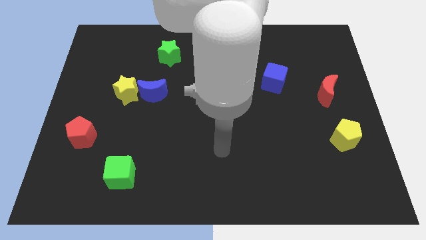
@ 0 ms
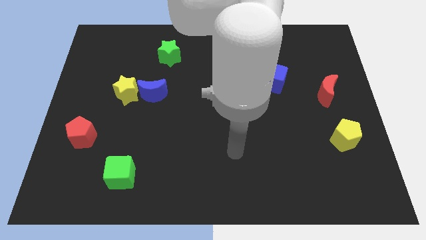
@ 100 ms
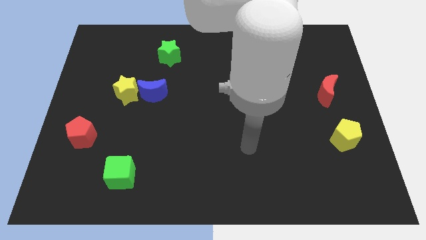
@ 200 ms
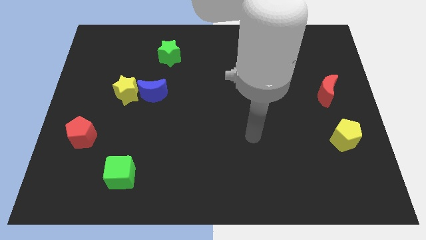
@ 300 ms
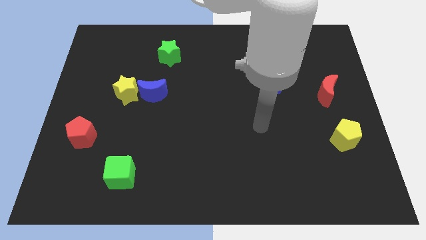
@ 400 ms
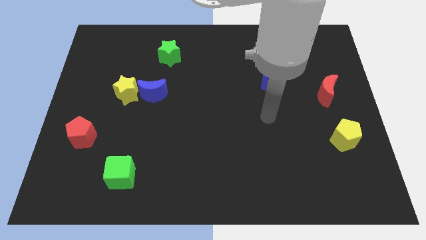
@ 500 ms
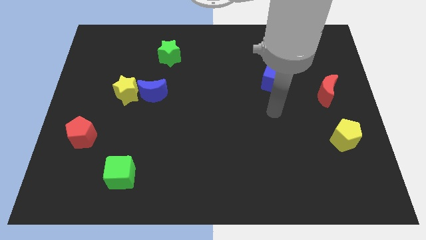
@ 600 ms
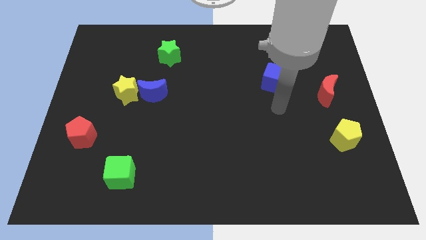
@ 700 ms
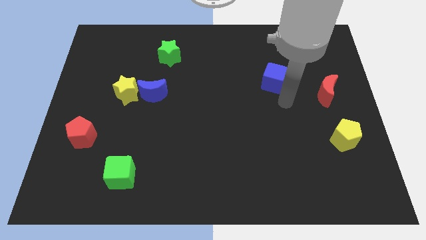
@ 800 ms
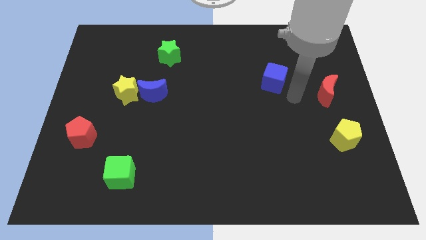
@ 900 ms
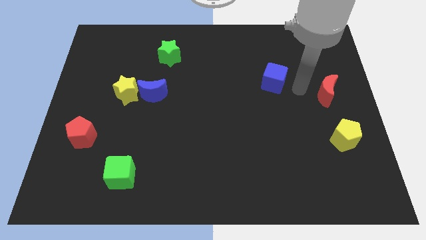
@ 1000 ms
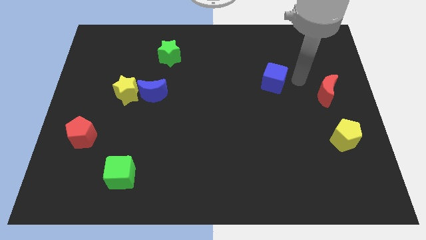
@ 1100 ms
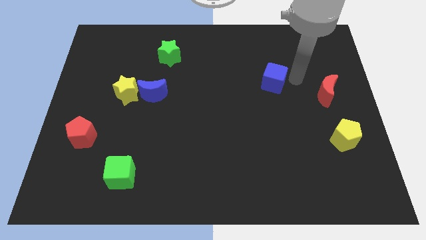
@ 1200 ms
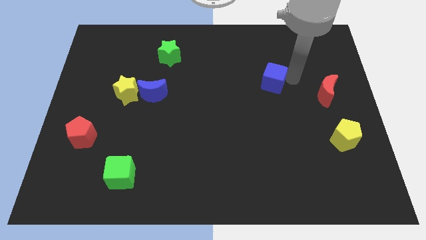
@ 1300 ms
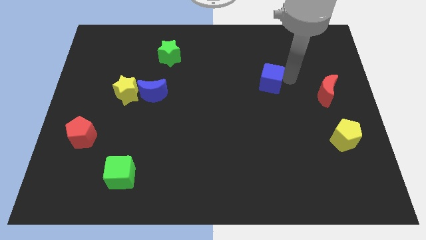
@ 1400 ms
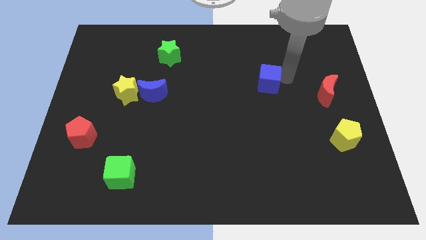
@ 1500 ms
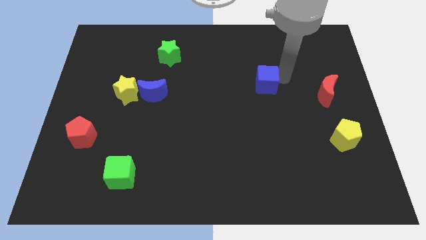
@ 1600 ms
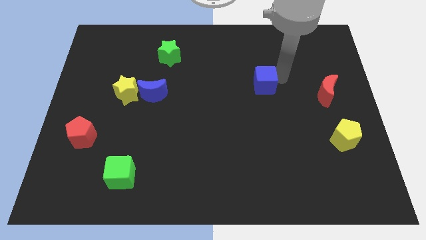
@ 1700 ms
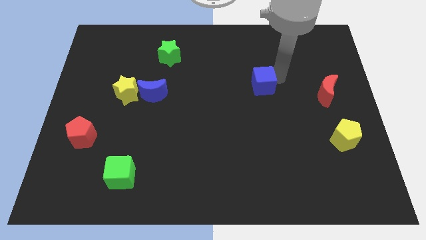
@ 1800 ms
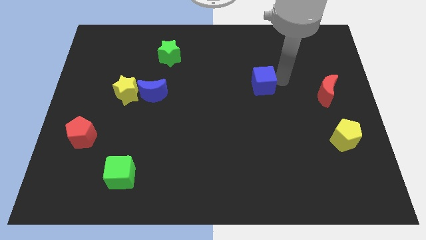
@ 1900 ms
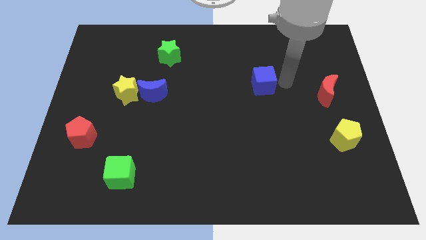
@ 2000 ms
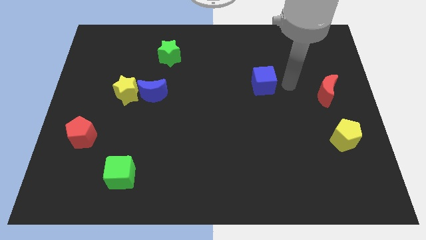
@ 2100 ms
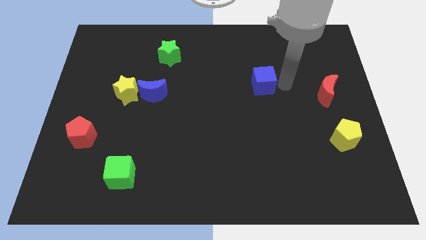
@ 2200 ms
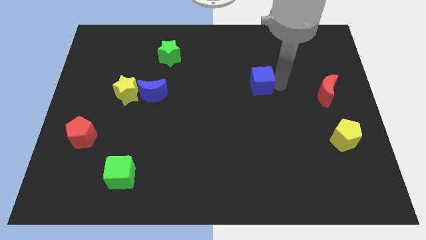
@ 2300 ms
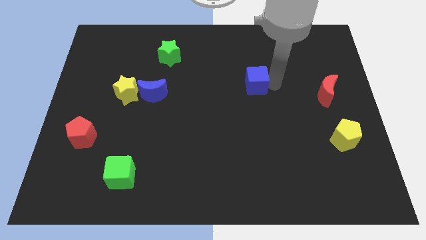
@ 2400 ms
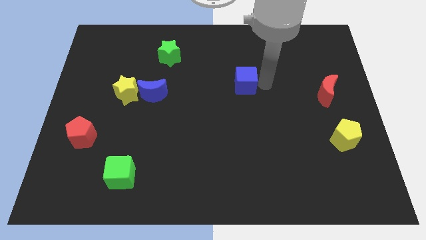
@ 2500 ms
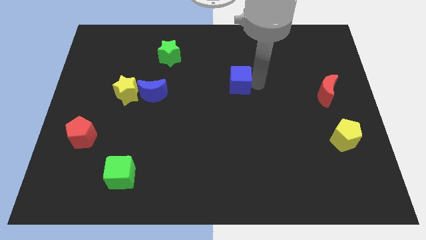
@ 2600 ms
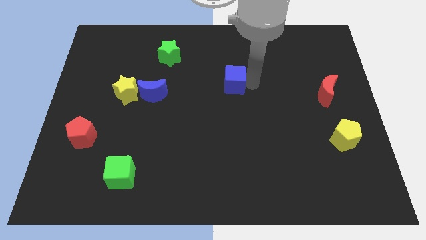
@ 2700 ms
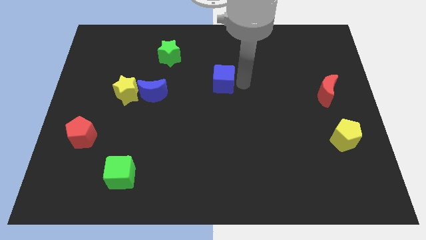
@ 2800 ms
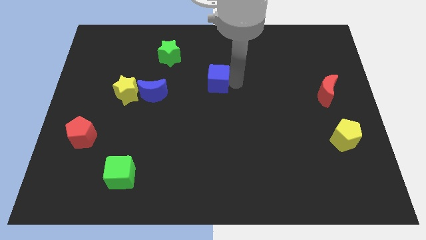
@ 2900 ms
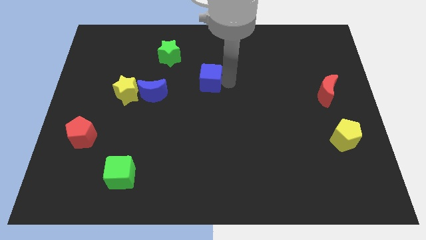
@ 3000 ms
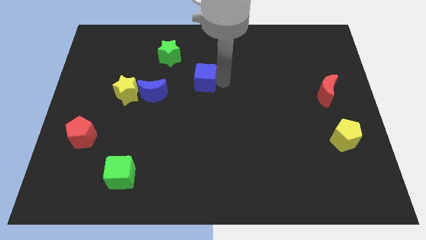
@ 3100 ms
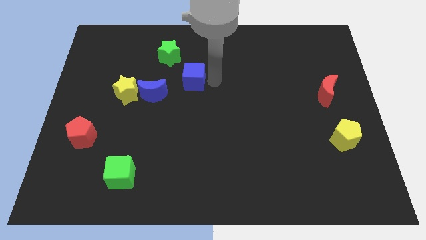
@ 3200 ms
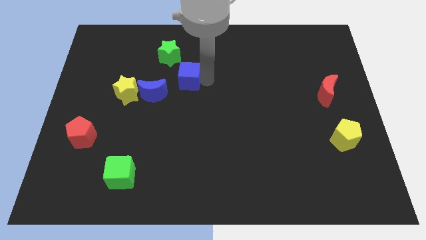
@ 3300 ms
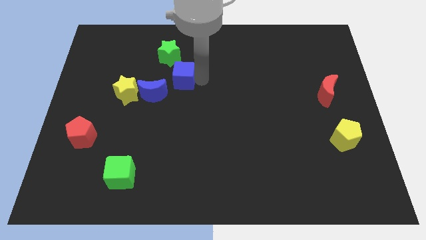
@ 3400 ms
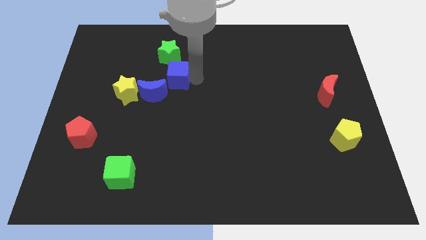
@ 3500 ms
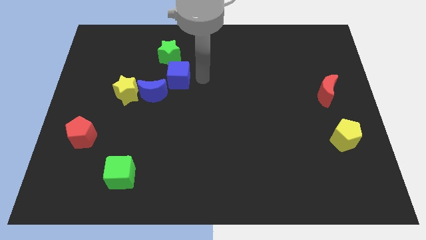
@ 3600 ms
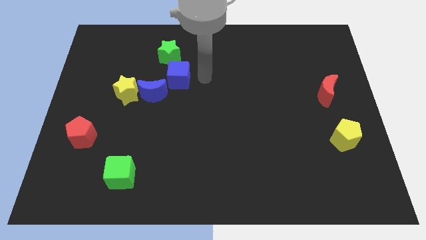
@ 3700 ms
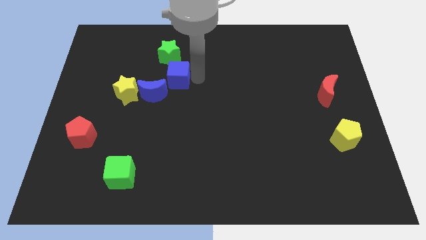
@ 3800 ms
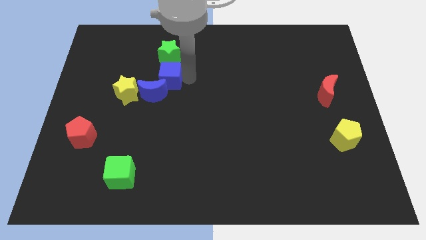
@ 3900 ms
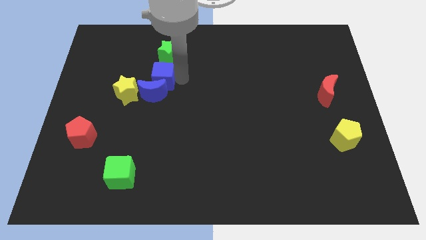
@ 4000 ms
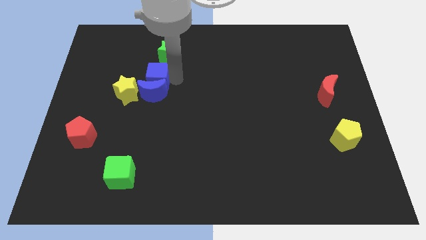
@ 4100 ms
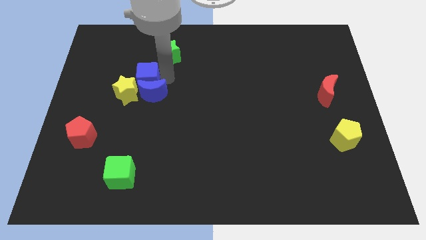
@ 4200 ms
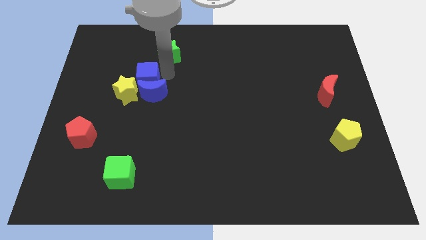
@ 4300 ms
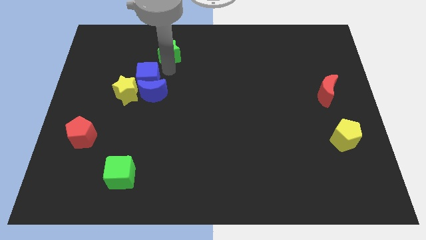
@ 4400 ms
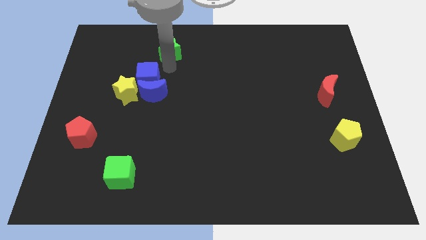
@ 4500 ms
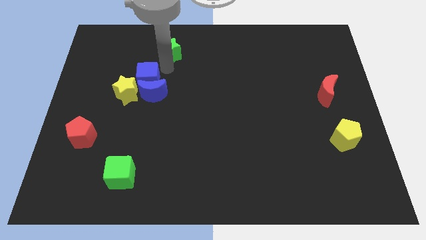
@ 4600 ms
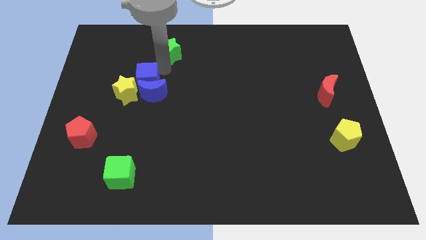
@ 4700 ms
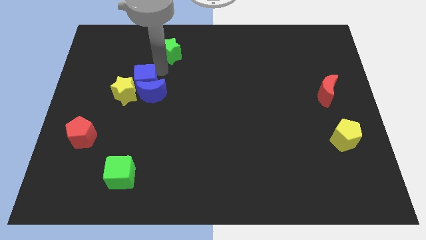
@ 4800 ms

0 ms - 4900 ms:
put the blue cube close to the yellow star

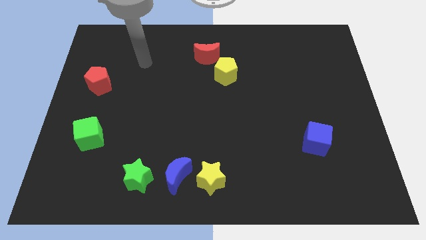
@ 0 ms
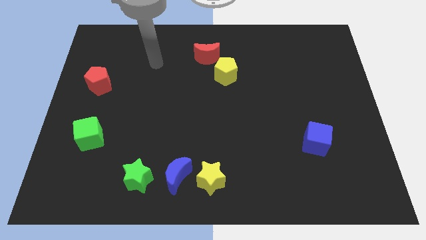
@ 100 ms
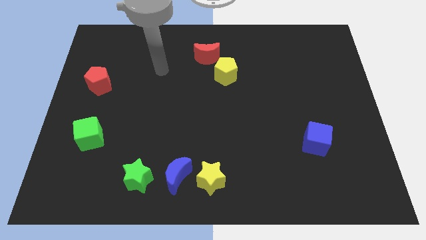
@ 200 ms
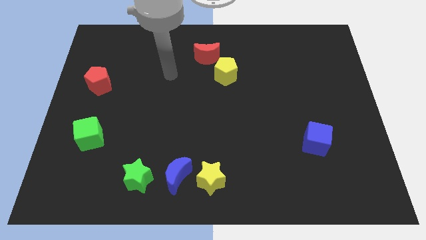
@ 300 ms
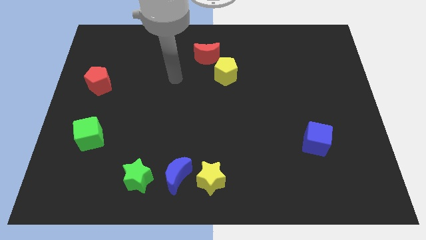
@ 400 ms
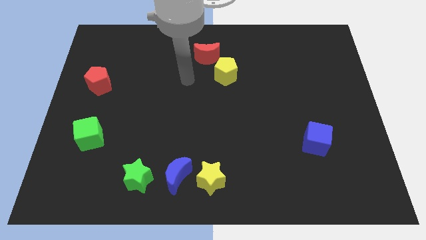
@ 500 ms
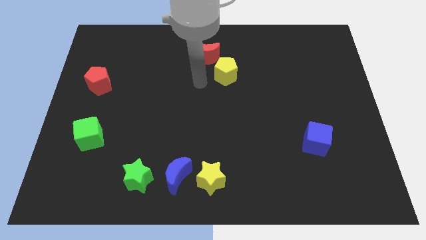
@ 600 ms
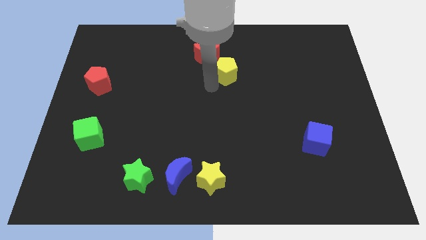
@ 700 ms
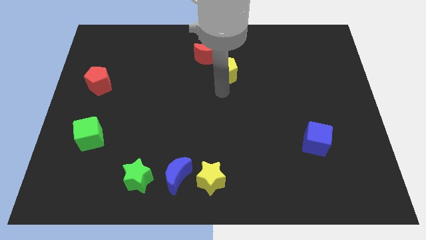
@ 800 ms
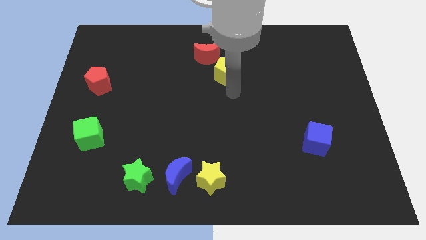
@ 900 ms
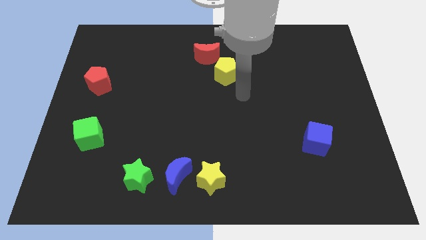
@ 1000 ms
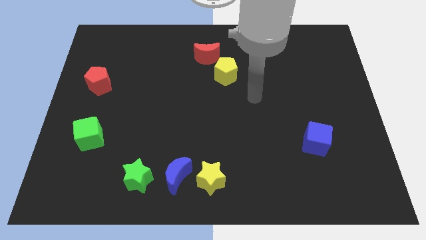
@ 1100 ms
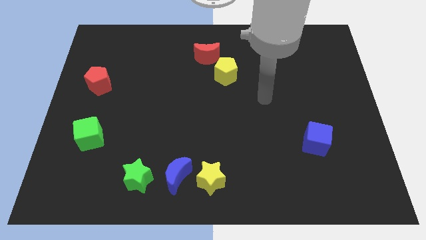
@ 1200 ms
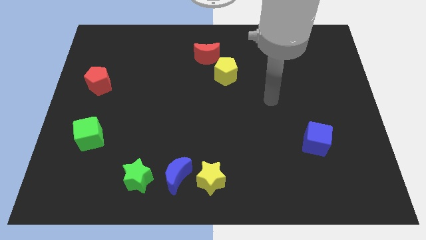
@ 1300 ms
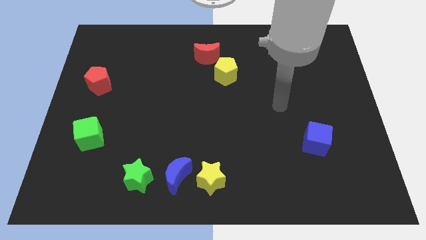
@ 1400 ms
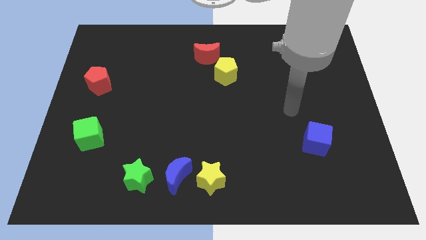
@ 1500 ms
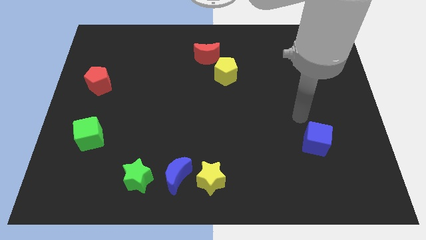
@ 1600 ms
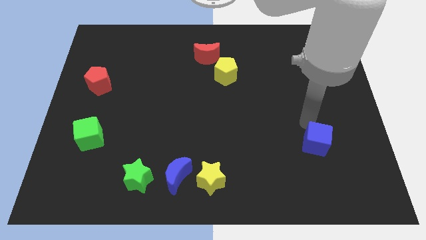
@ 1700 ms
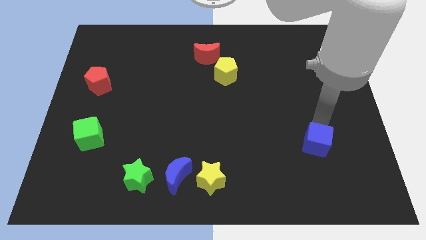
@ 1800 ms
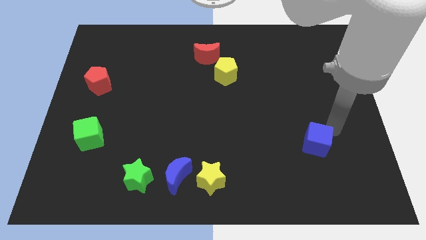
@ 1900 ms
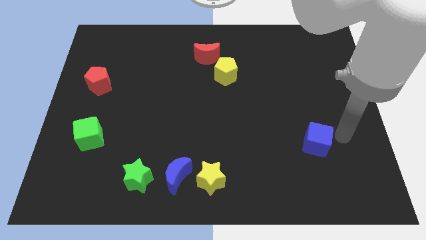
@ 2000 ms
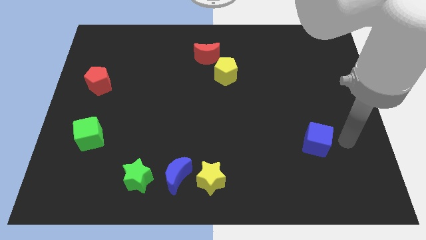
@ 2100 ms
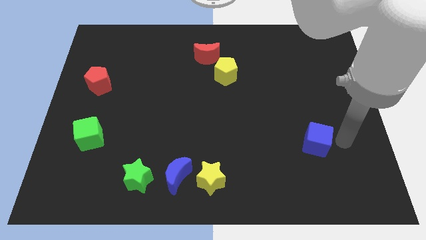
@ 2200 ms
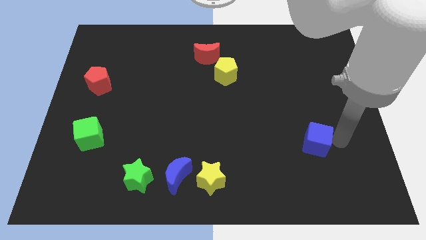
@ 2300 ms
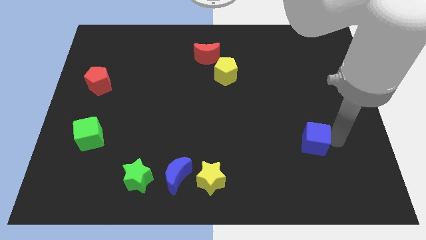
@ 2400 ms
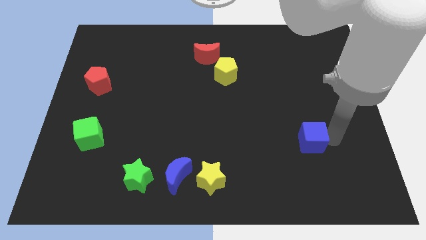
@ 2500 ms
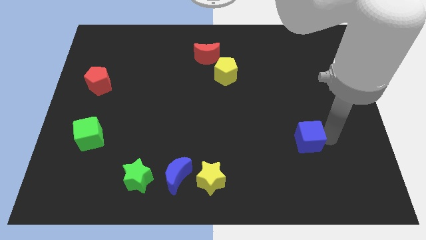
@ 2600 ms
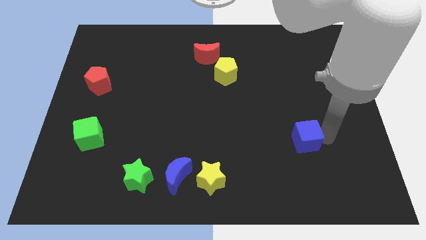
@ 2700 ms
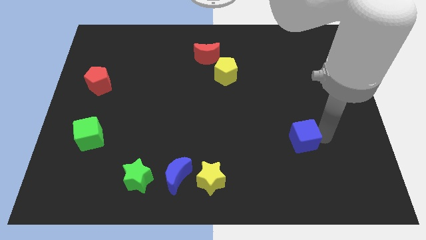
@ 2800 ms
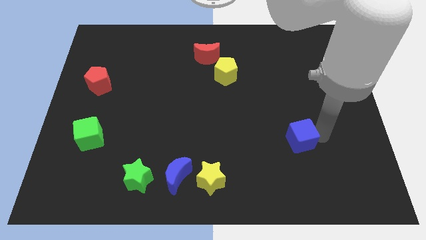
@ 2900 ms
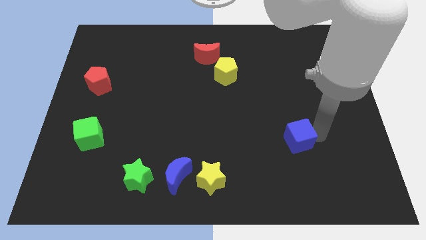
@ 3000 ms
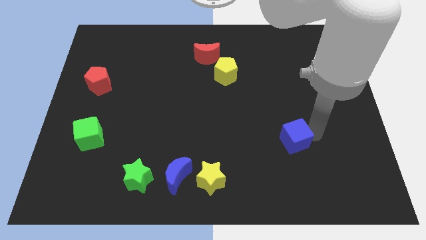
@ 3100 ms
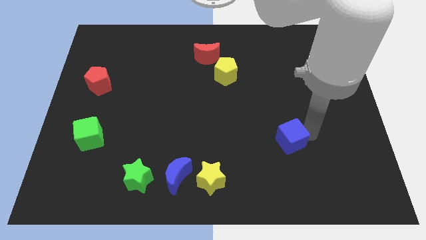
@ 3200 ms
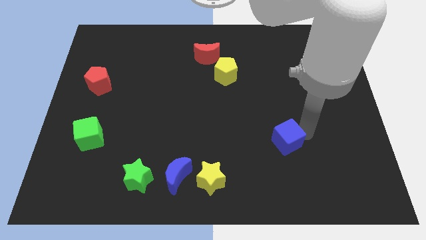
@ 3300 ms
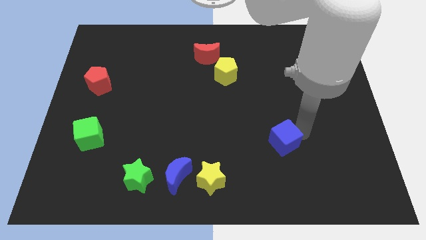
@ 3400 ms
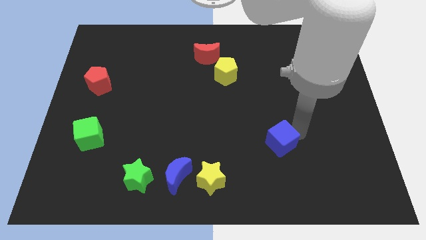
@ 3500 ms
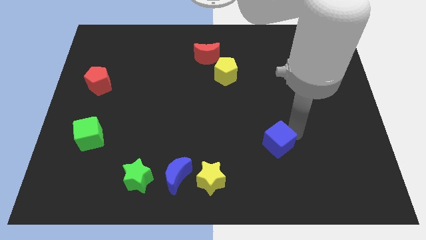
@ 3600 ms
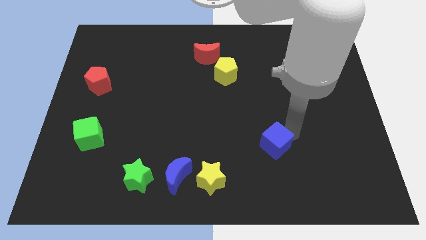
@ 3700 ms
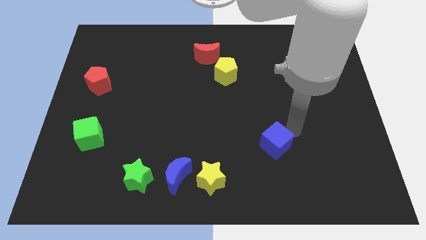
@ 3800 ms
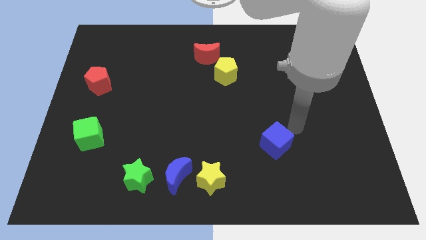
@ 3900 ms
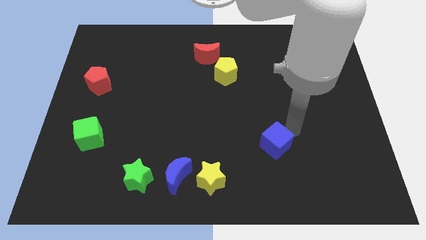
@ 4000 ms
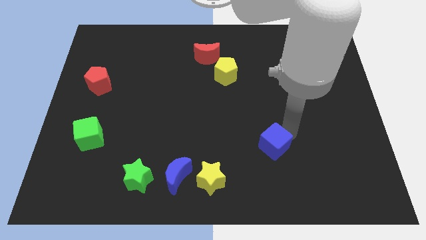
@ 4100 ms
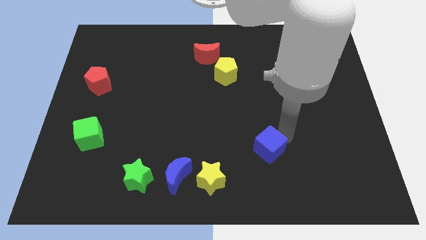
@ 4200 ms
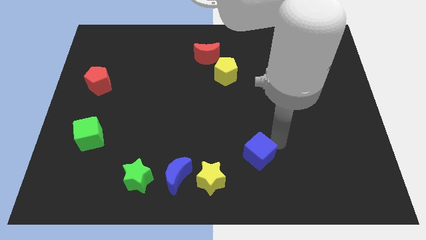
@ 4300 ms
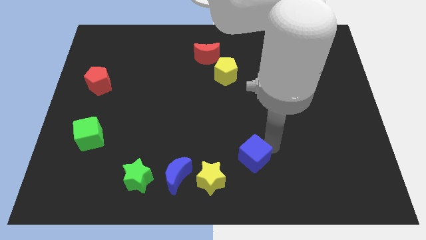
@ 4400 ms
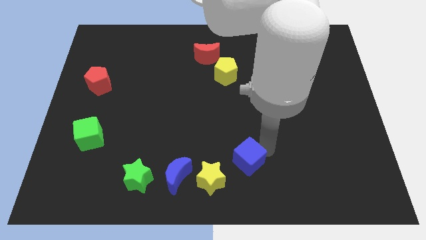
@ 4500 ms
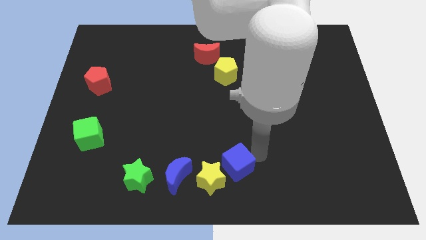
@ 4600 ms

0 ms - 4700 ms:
push the blue cube to the yellow star
